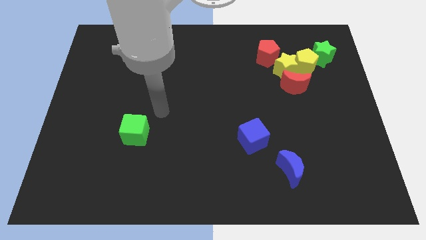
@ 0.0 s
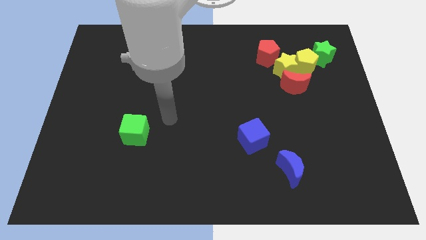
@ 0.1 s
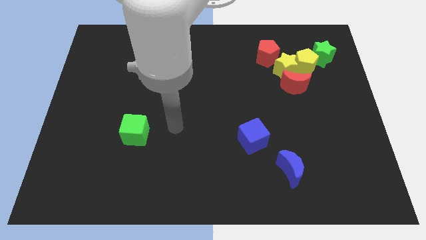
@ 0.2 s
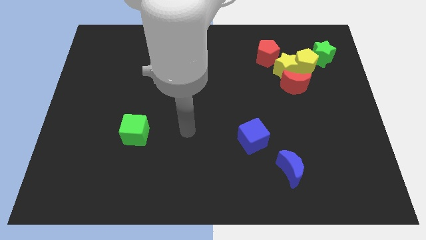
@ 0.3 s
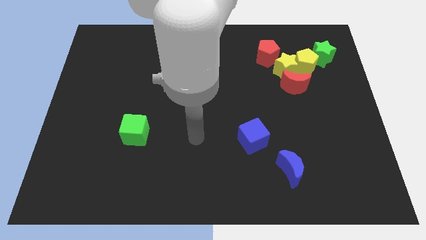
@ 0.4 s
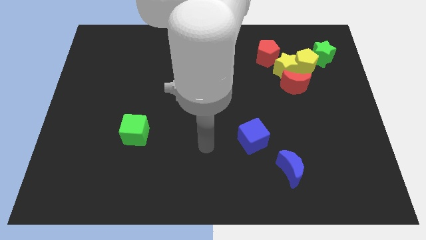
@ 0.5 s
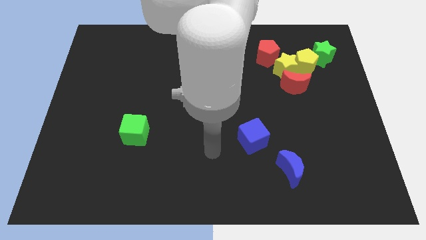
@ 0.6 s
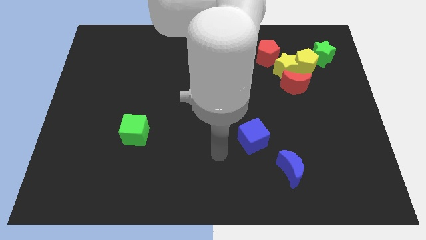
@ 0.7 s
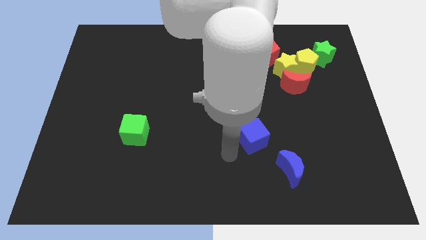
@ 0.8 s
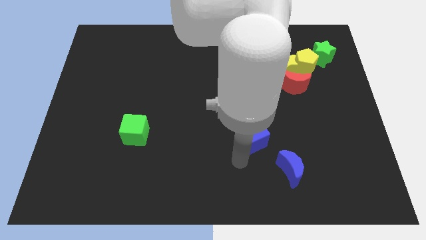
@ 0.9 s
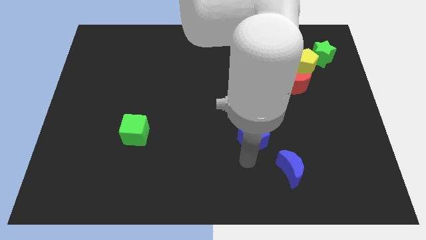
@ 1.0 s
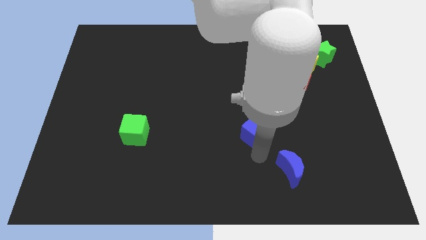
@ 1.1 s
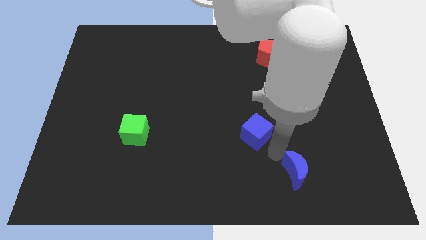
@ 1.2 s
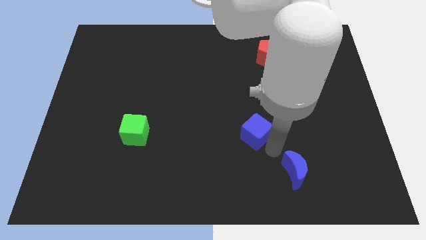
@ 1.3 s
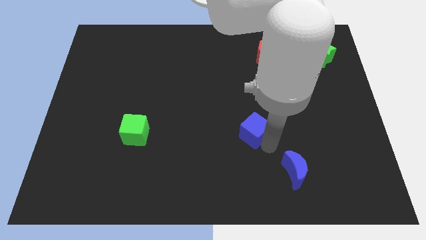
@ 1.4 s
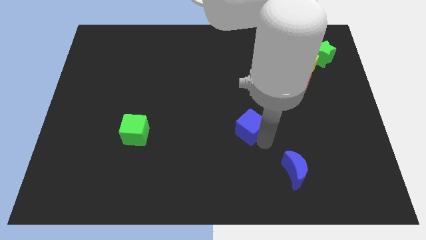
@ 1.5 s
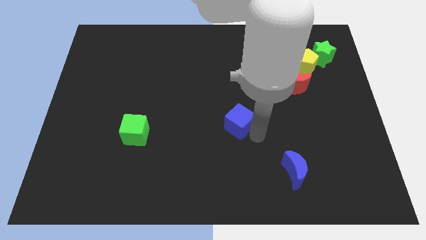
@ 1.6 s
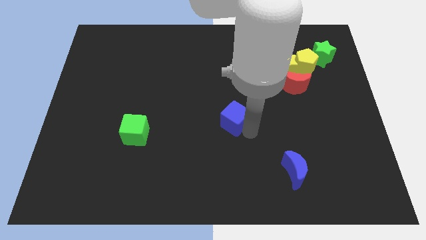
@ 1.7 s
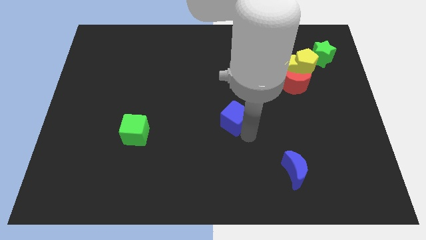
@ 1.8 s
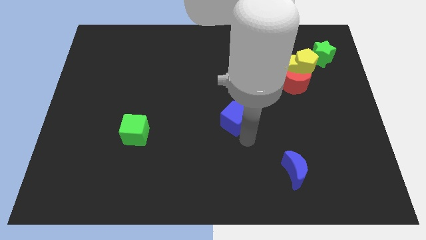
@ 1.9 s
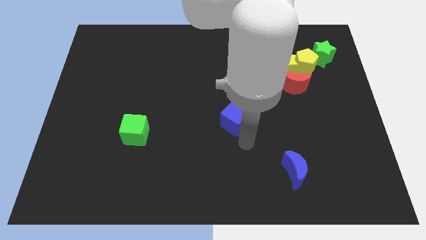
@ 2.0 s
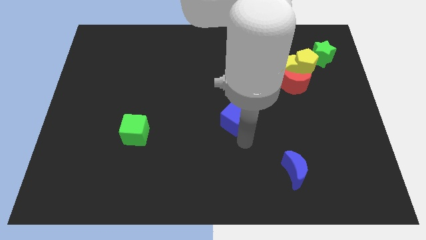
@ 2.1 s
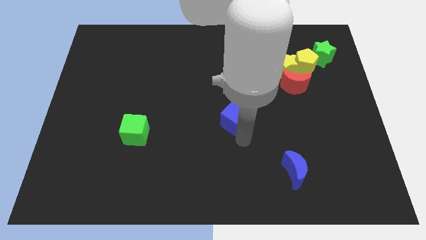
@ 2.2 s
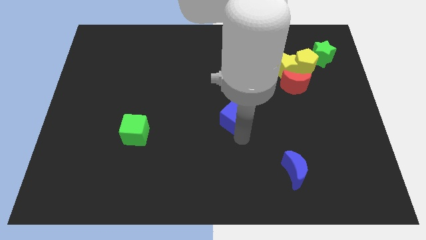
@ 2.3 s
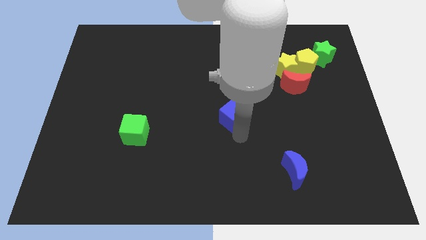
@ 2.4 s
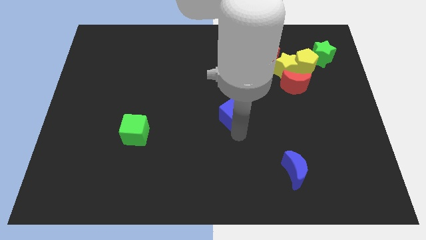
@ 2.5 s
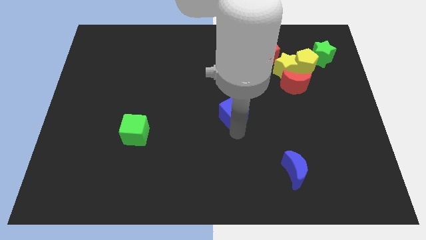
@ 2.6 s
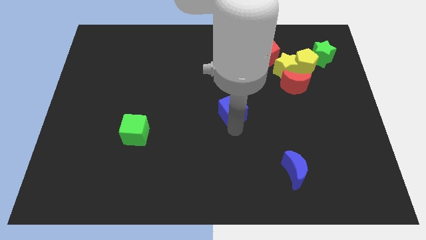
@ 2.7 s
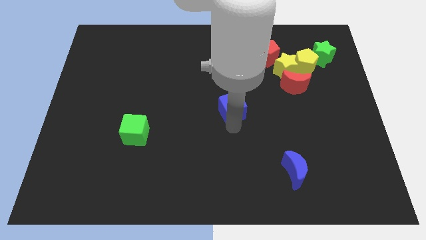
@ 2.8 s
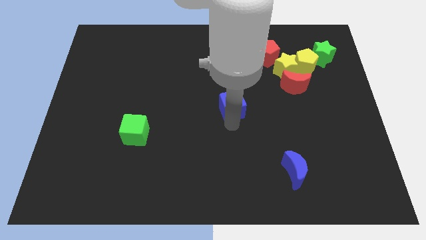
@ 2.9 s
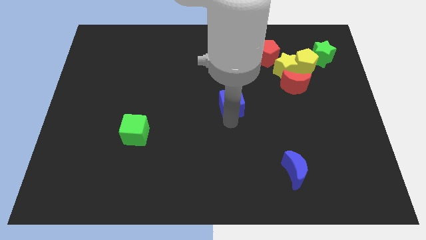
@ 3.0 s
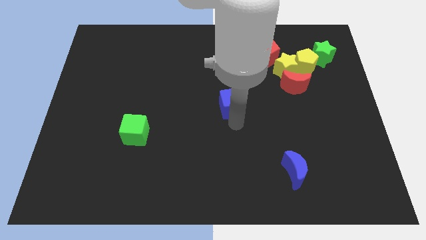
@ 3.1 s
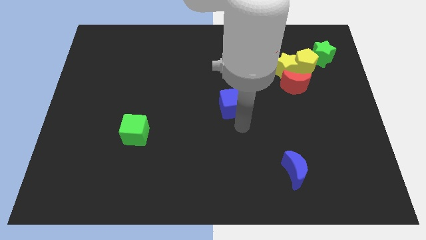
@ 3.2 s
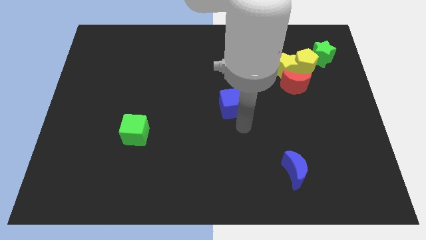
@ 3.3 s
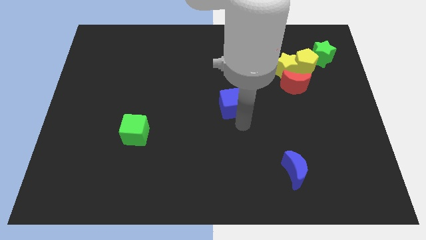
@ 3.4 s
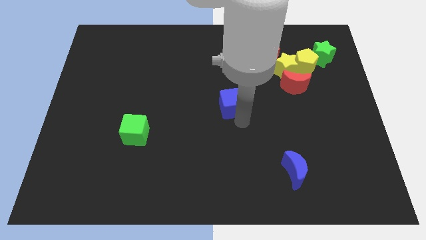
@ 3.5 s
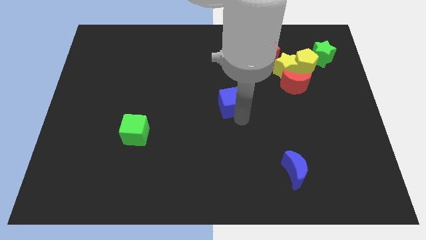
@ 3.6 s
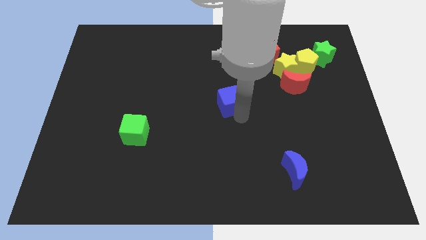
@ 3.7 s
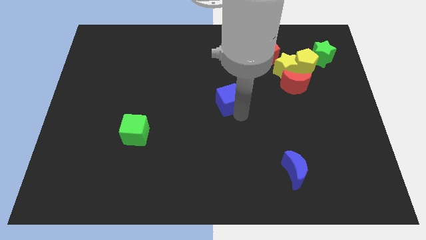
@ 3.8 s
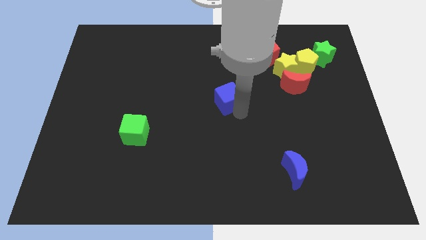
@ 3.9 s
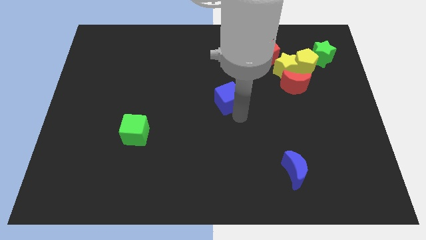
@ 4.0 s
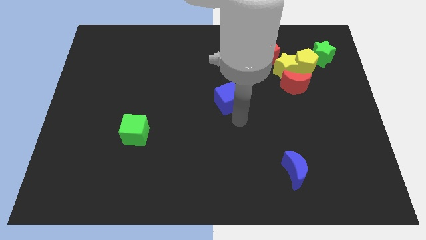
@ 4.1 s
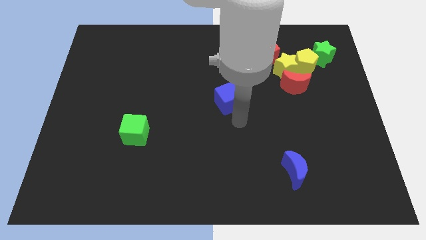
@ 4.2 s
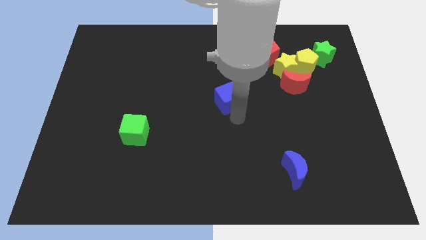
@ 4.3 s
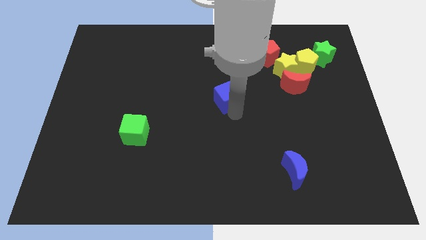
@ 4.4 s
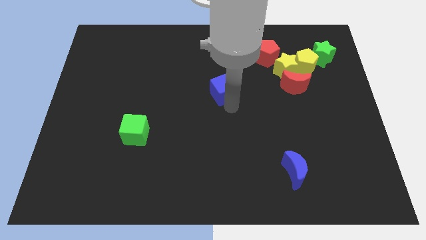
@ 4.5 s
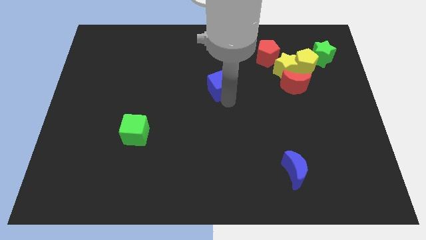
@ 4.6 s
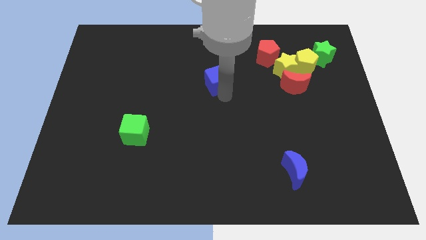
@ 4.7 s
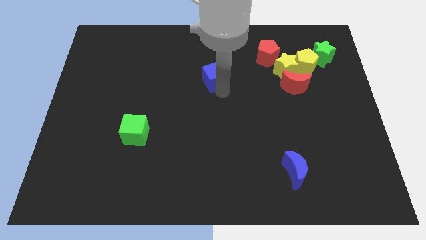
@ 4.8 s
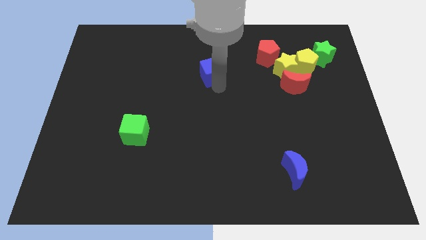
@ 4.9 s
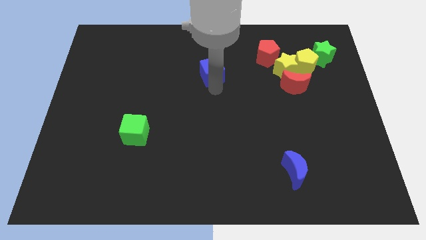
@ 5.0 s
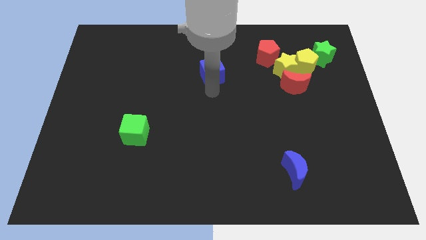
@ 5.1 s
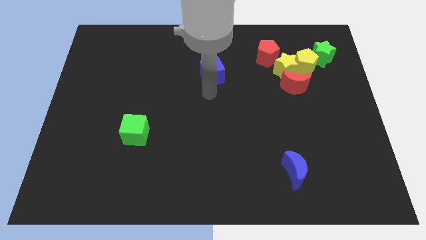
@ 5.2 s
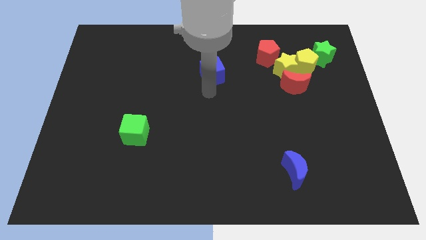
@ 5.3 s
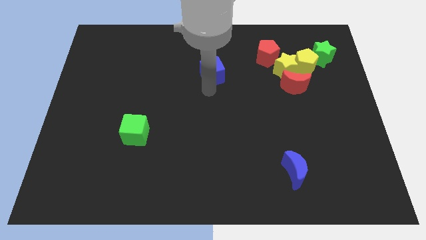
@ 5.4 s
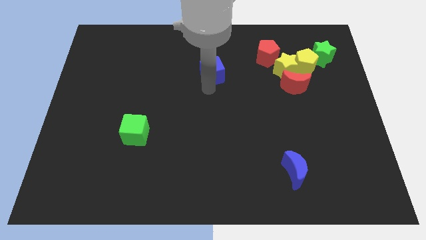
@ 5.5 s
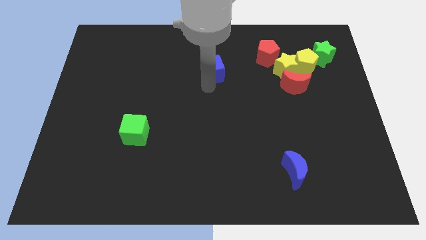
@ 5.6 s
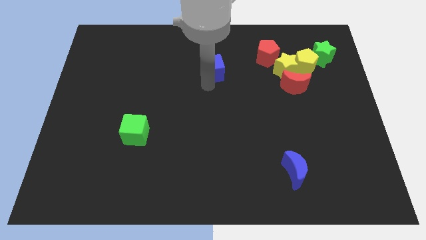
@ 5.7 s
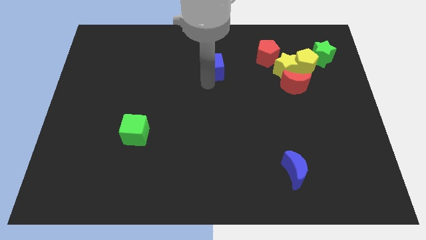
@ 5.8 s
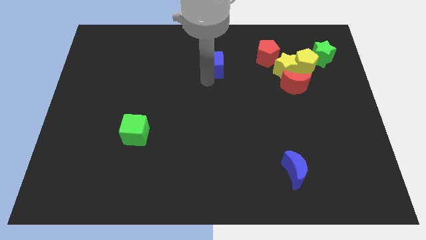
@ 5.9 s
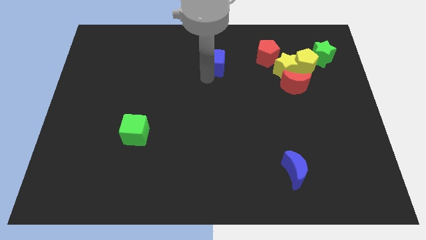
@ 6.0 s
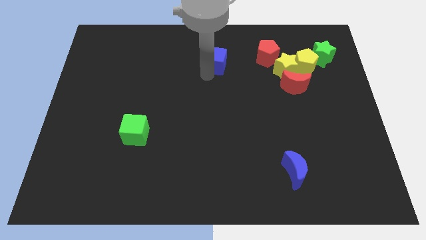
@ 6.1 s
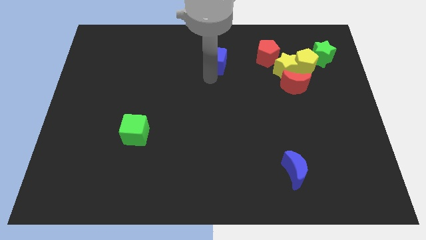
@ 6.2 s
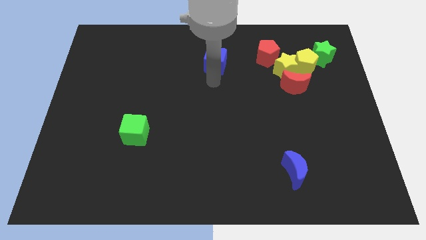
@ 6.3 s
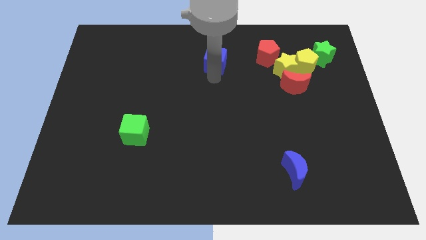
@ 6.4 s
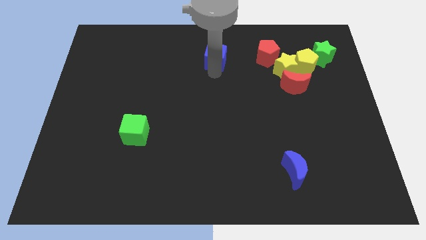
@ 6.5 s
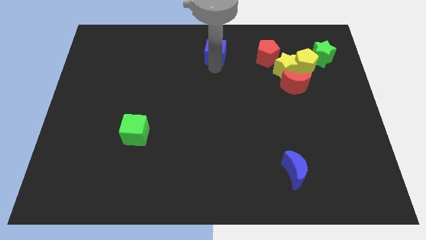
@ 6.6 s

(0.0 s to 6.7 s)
put the blue cube to the top side

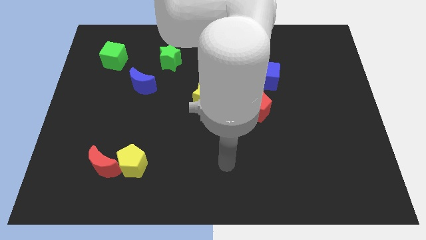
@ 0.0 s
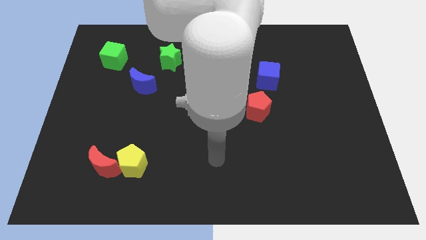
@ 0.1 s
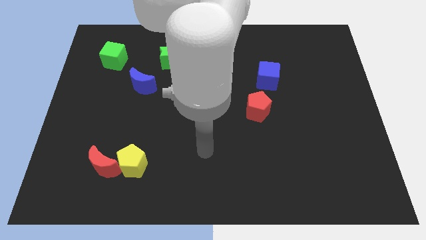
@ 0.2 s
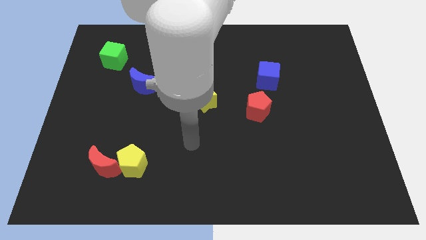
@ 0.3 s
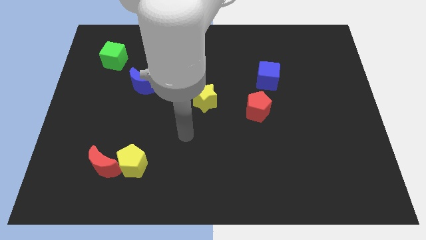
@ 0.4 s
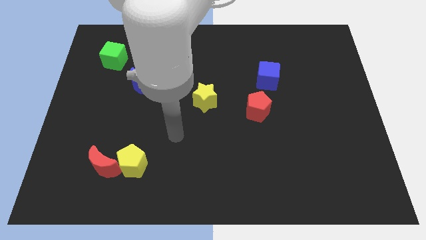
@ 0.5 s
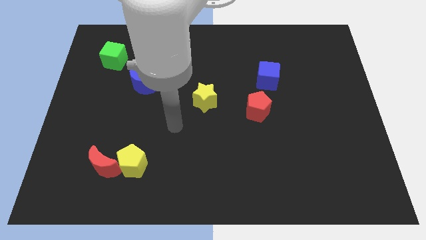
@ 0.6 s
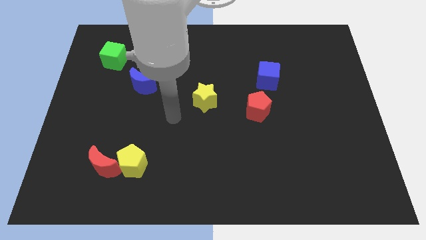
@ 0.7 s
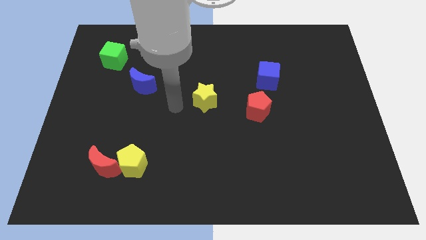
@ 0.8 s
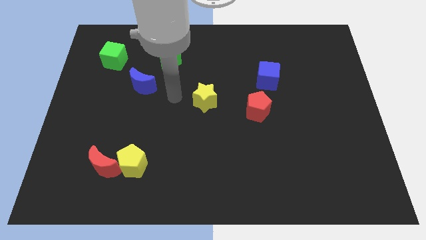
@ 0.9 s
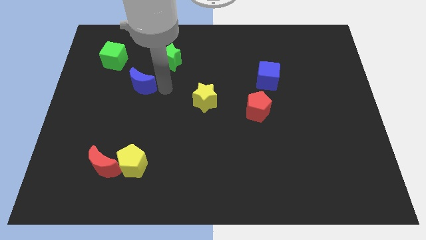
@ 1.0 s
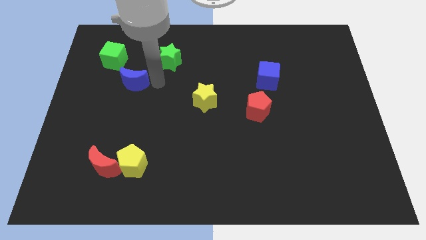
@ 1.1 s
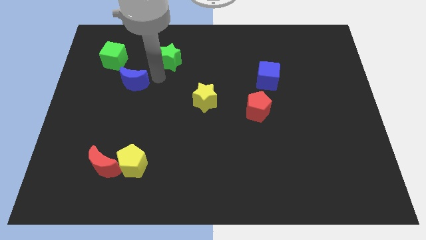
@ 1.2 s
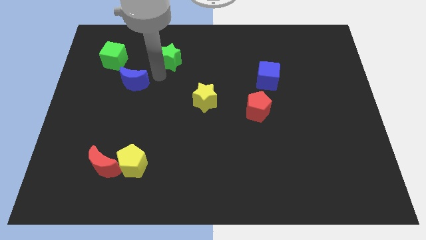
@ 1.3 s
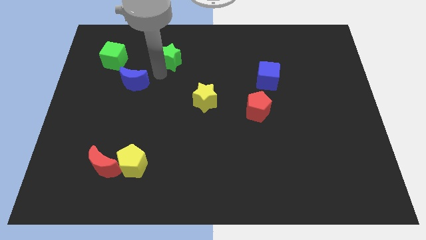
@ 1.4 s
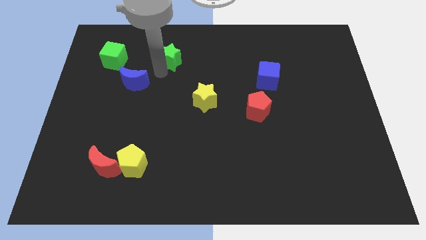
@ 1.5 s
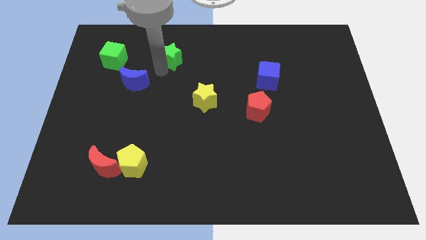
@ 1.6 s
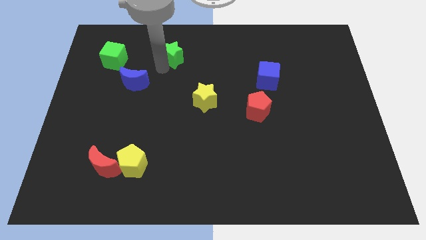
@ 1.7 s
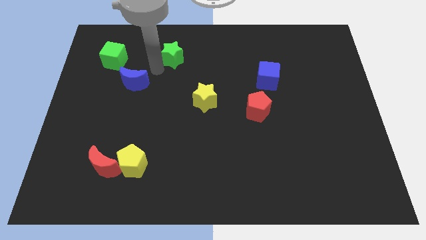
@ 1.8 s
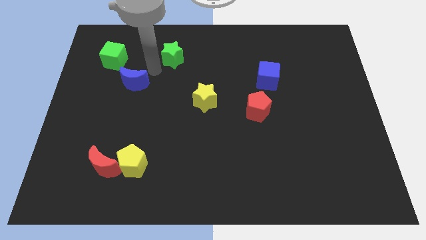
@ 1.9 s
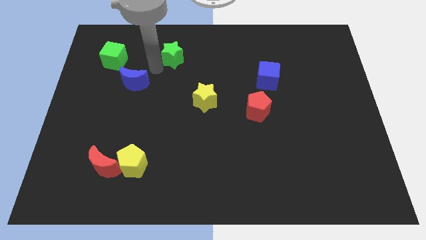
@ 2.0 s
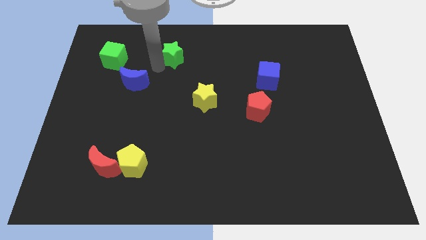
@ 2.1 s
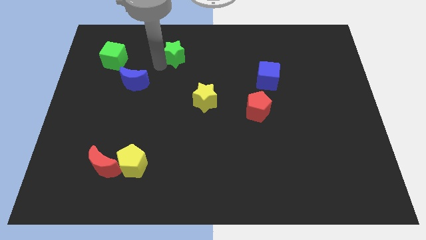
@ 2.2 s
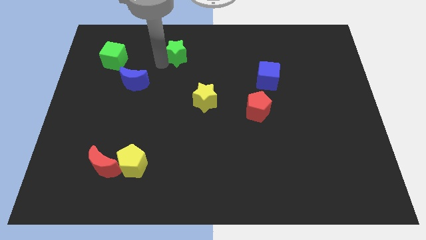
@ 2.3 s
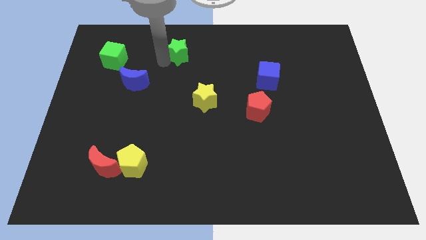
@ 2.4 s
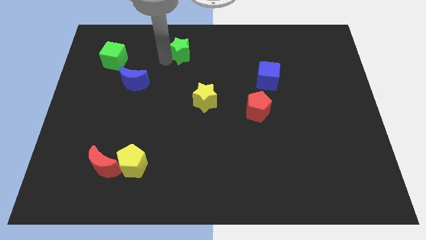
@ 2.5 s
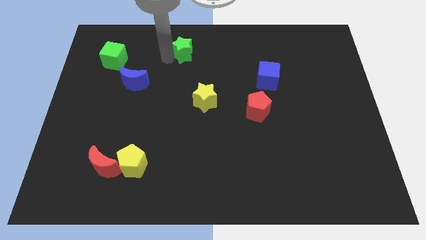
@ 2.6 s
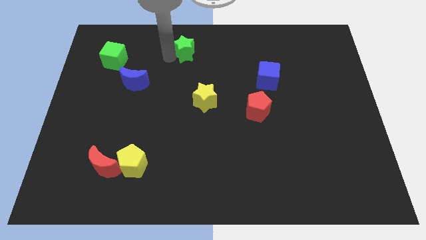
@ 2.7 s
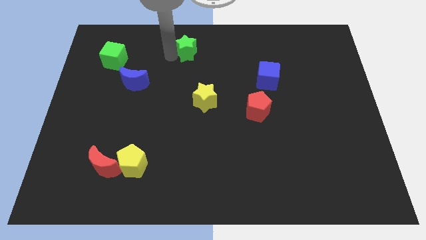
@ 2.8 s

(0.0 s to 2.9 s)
push the green star to the top side
